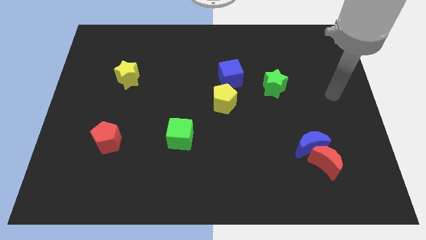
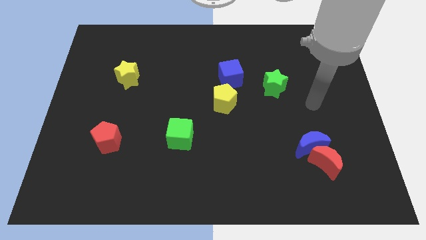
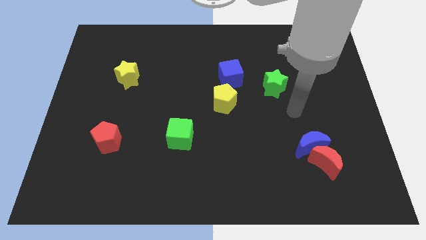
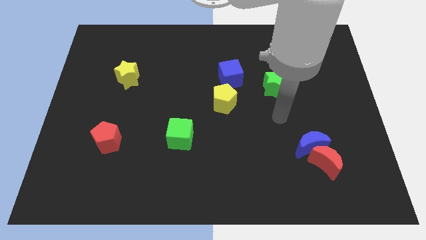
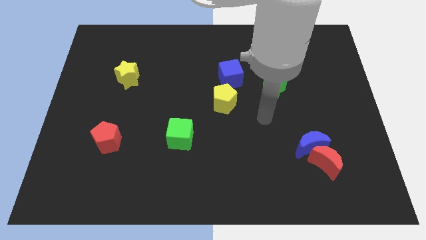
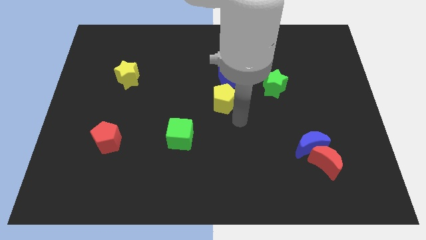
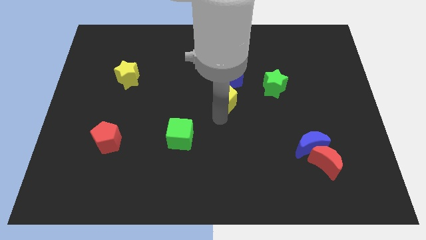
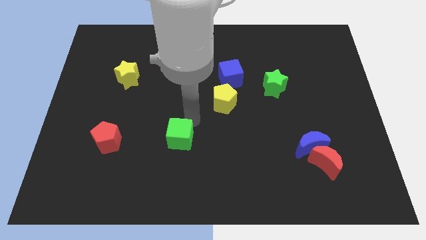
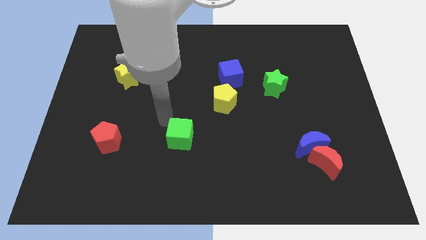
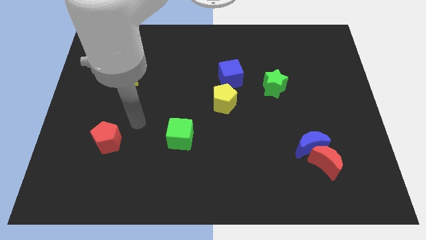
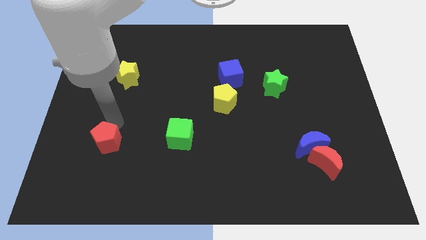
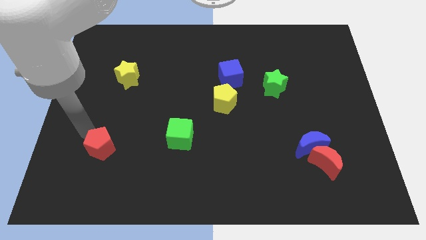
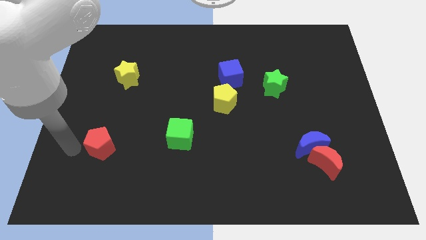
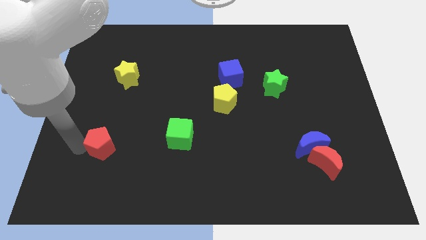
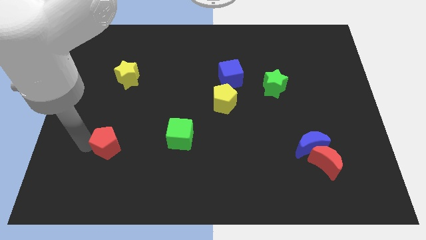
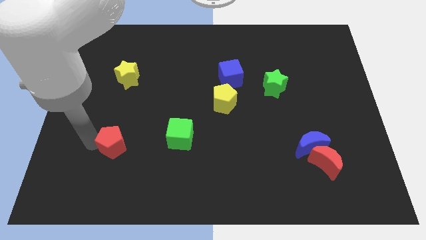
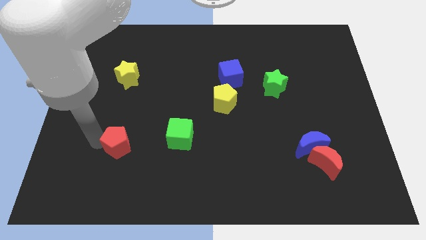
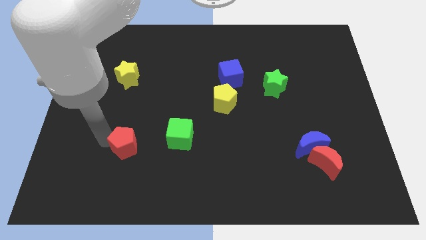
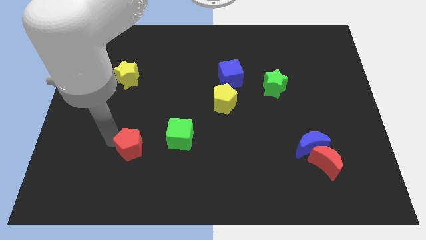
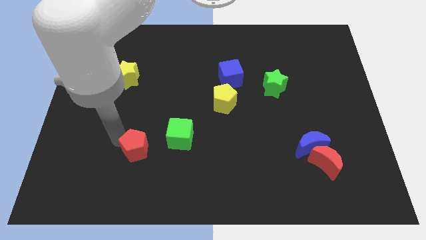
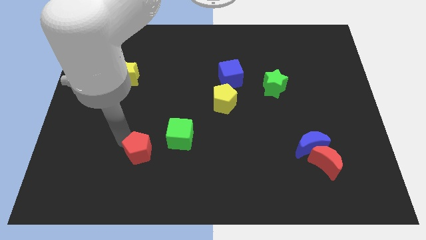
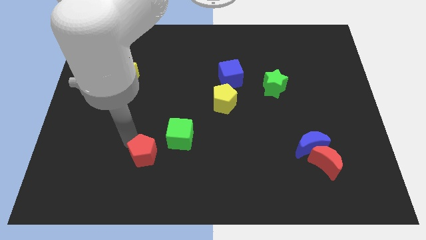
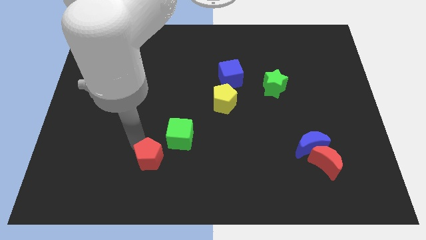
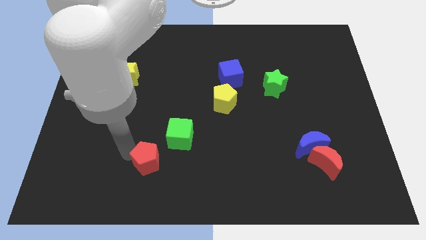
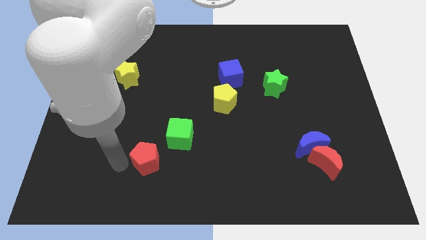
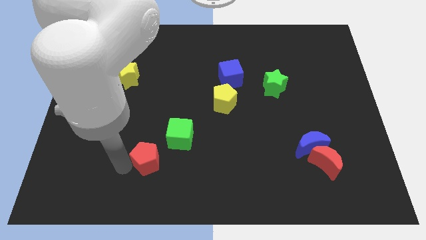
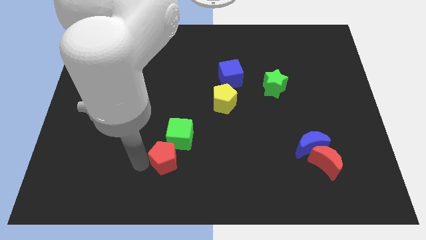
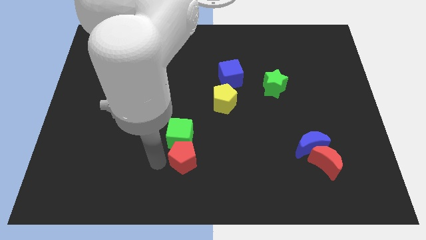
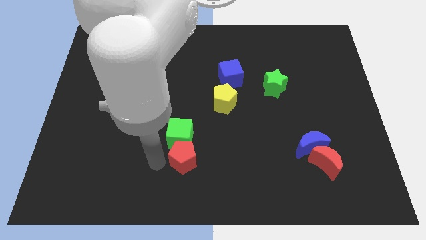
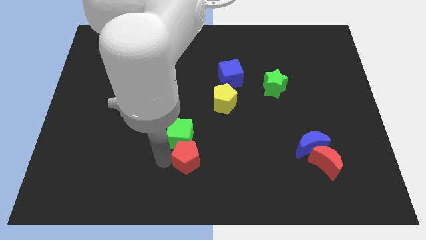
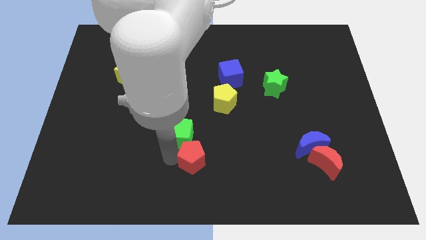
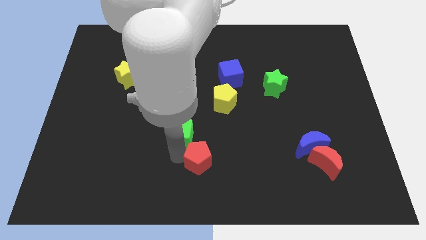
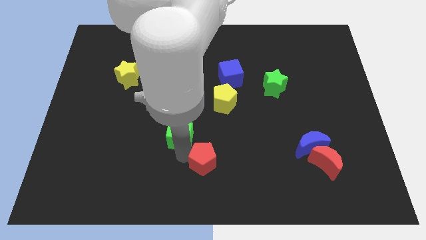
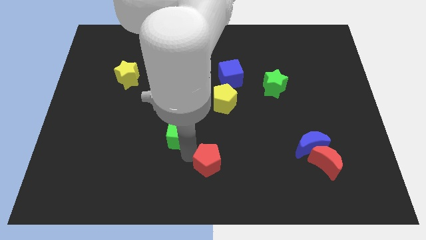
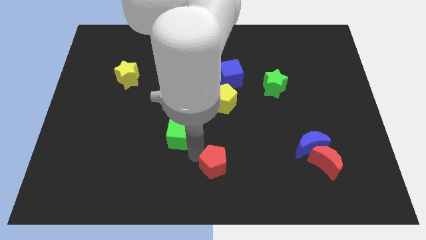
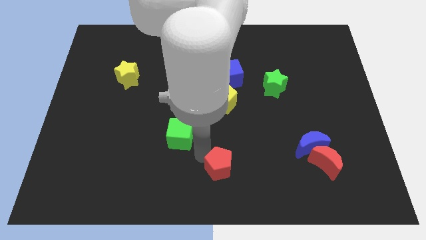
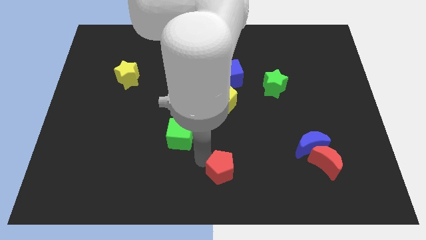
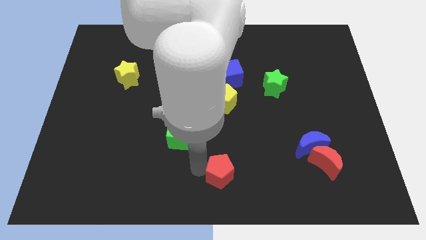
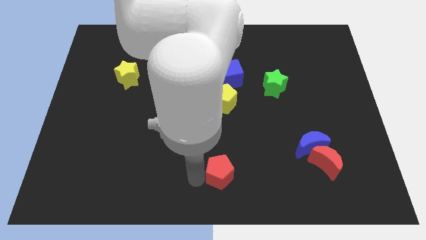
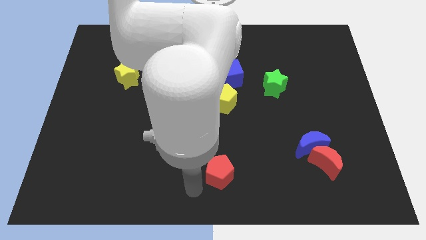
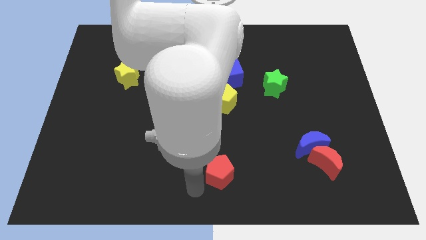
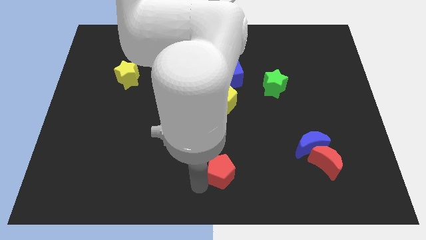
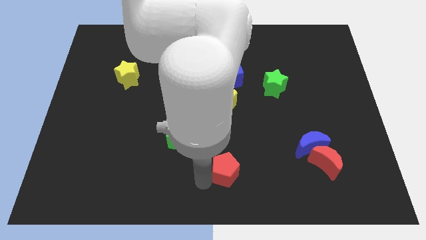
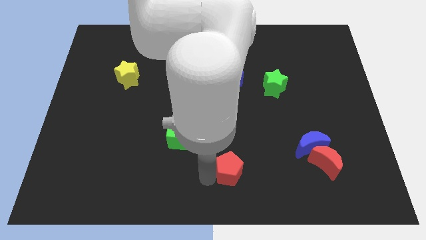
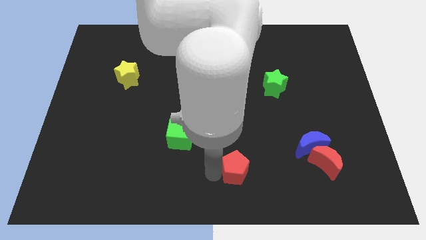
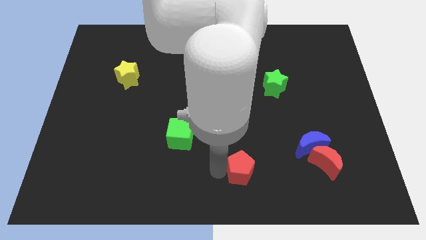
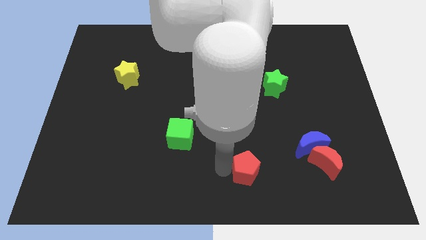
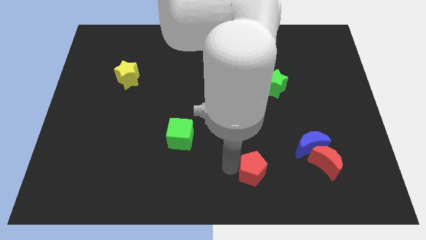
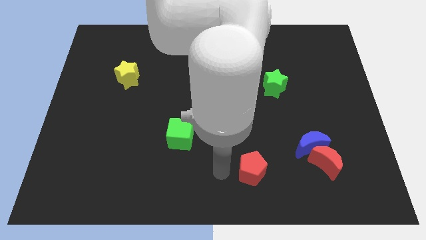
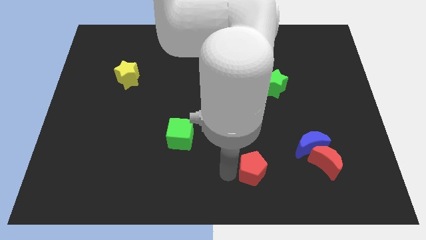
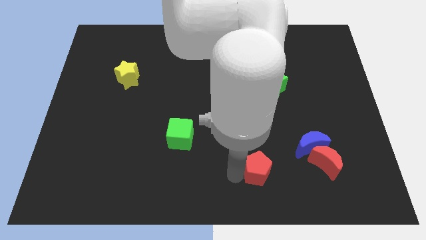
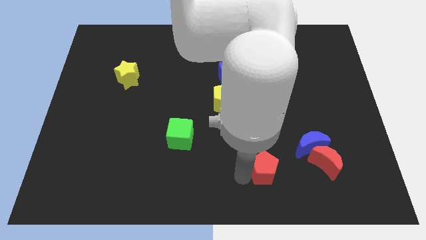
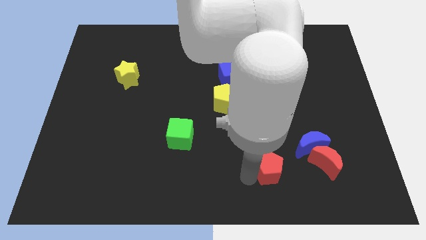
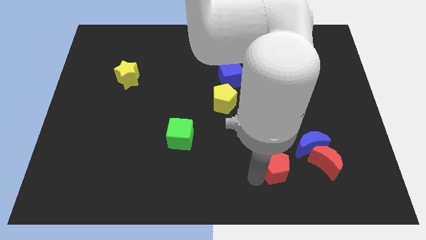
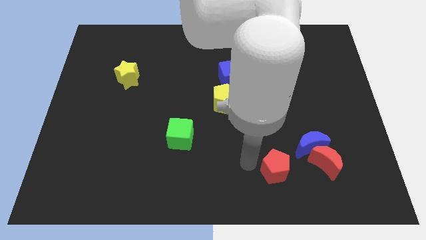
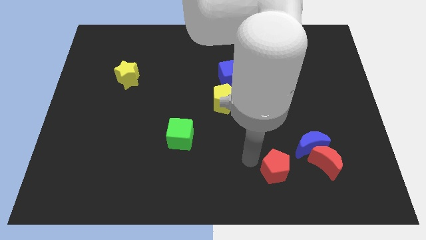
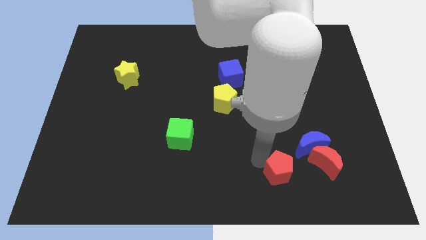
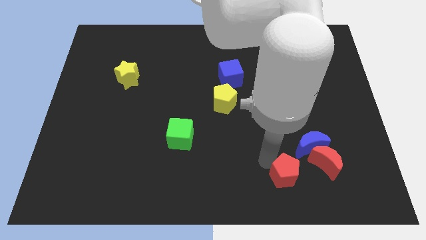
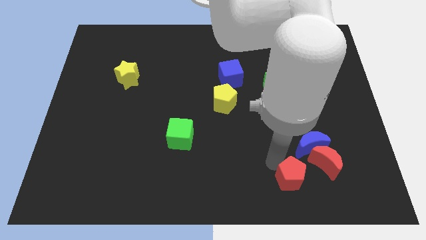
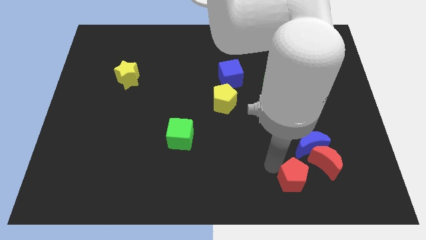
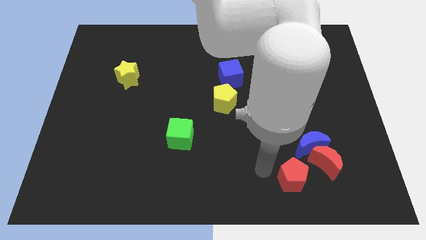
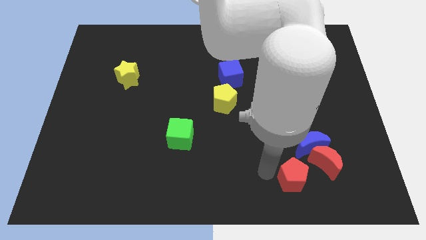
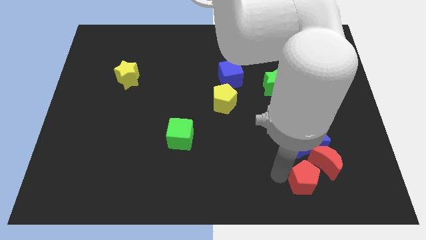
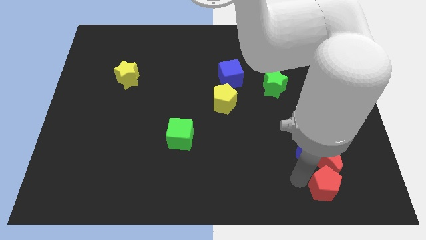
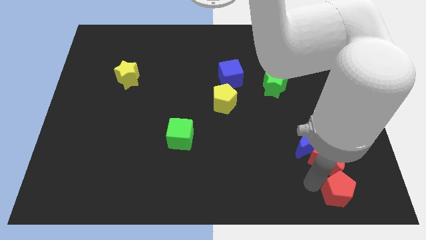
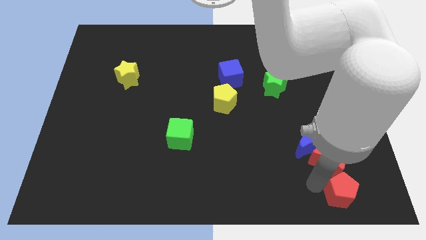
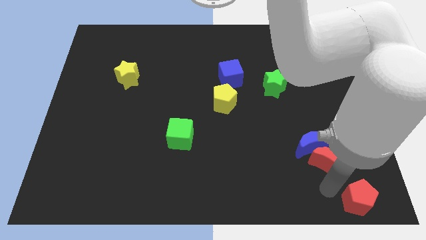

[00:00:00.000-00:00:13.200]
push the red pentagon to the bottom right corner

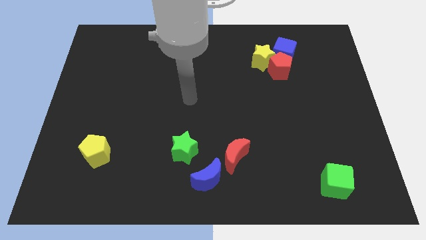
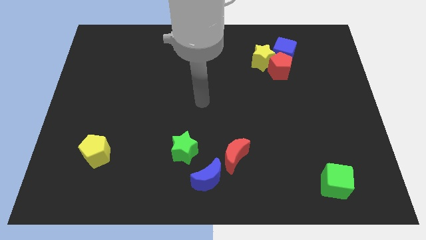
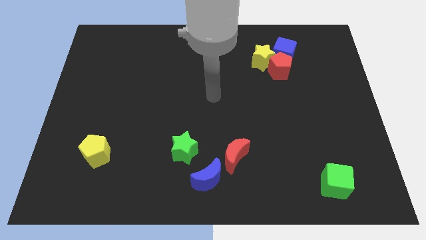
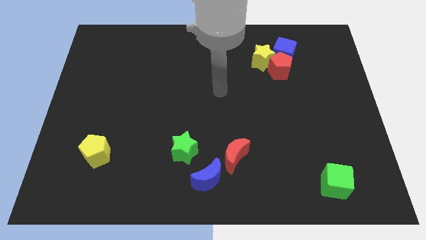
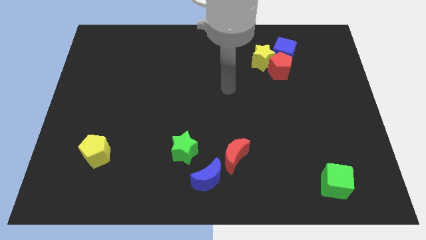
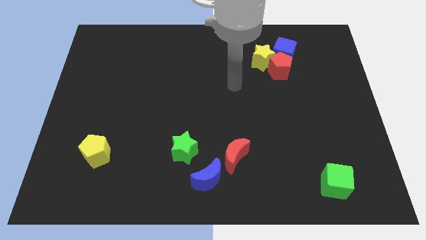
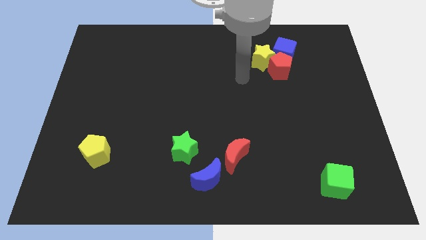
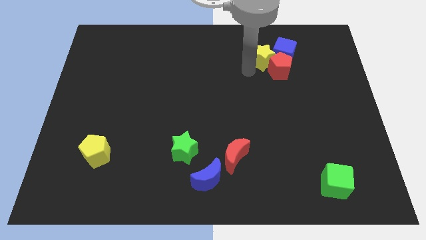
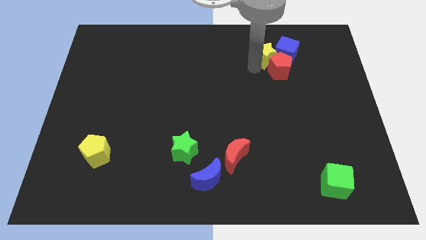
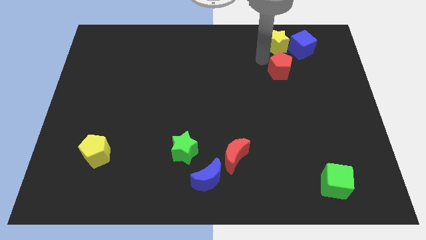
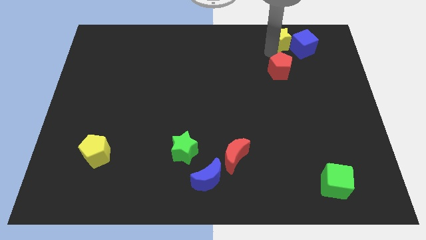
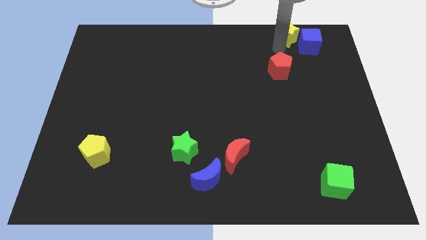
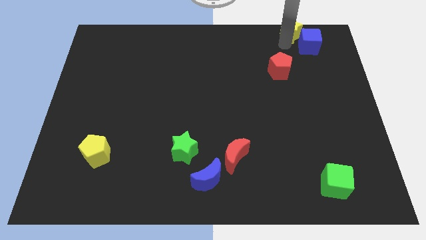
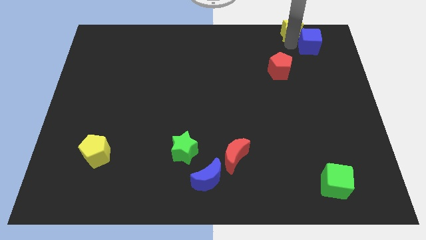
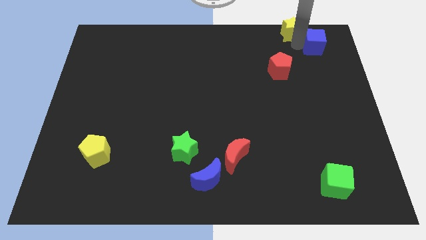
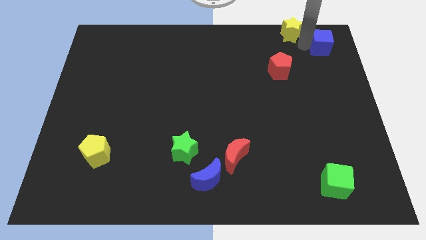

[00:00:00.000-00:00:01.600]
move the blue cube to the top right corner
